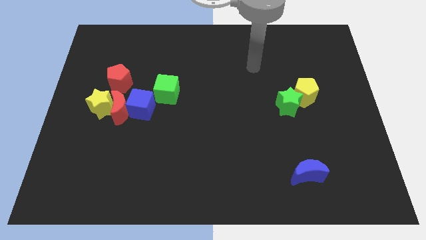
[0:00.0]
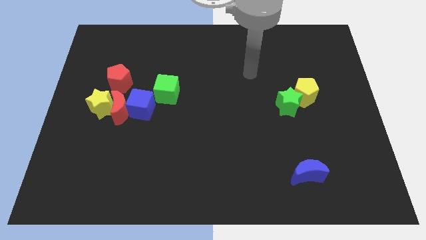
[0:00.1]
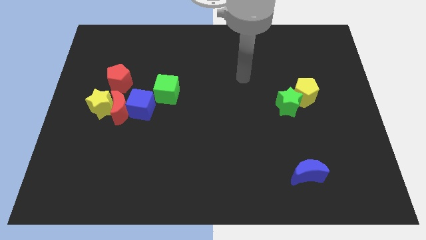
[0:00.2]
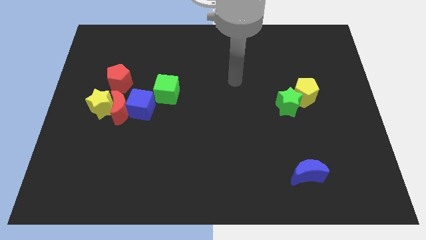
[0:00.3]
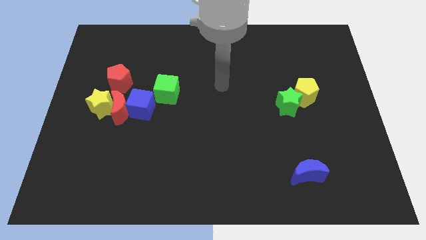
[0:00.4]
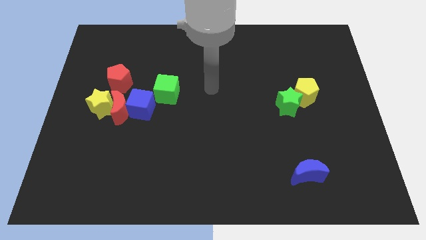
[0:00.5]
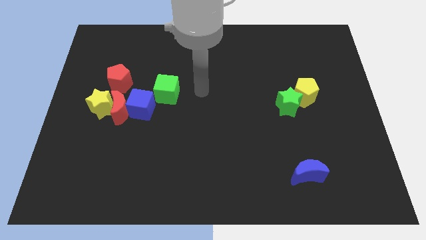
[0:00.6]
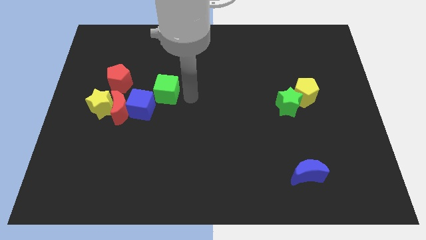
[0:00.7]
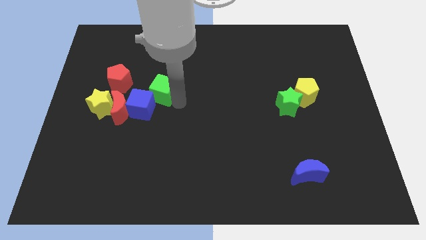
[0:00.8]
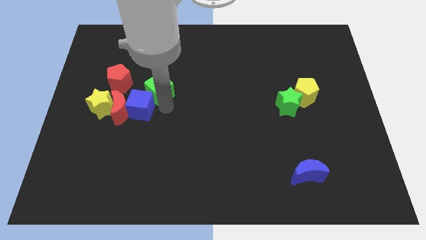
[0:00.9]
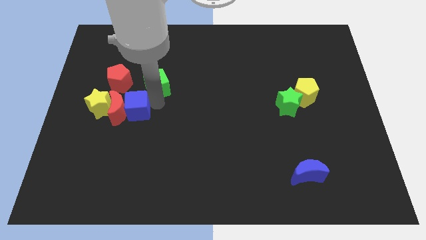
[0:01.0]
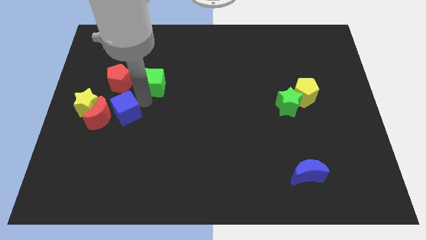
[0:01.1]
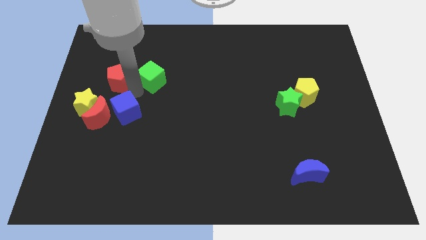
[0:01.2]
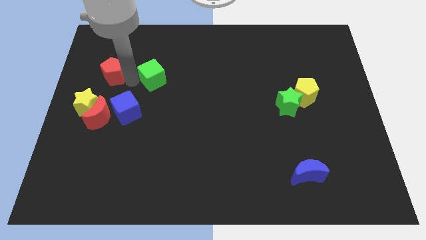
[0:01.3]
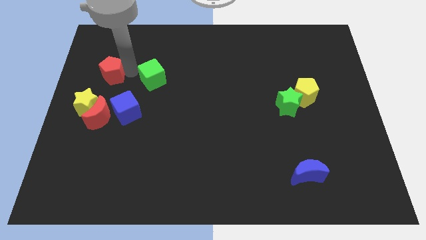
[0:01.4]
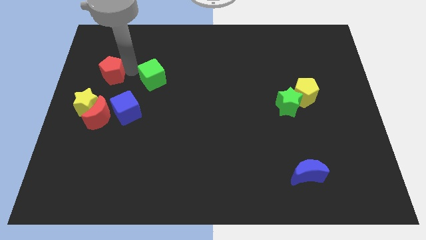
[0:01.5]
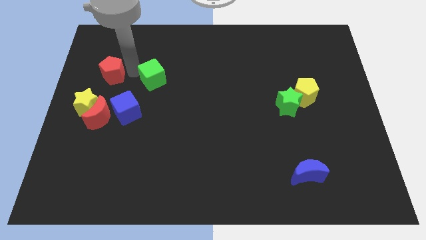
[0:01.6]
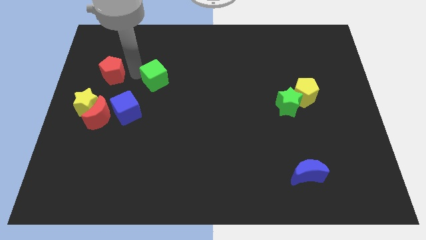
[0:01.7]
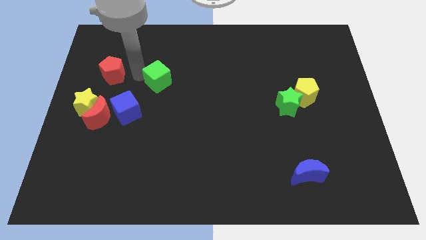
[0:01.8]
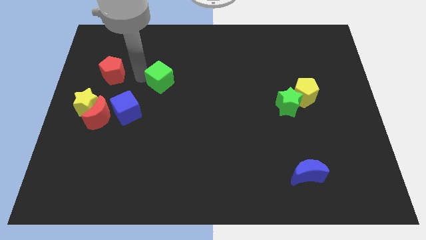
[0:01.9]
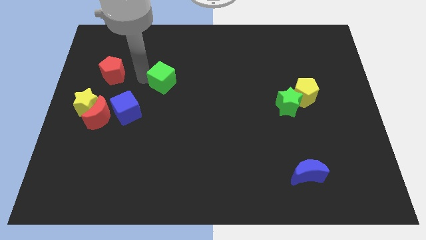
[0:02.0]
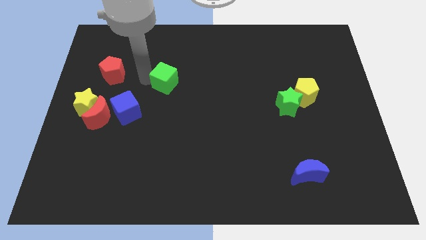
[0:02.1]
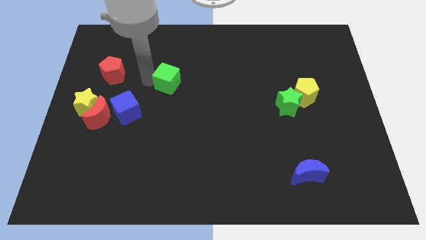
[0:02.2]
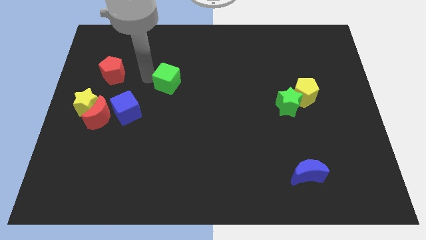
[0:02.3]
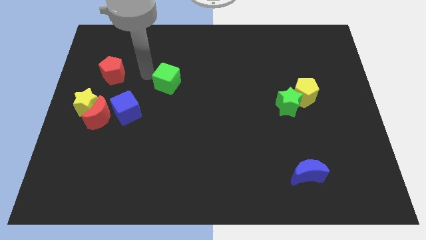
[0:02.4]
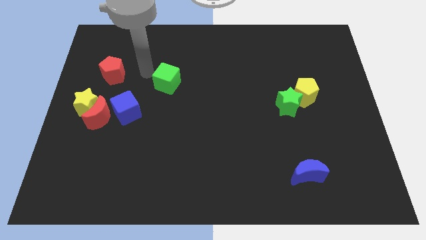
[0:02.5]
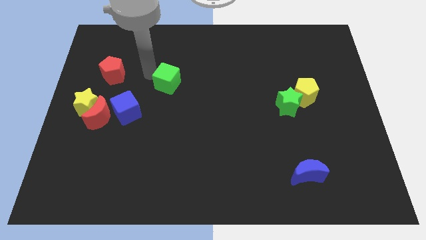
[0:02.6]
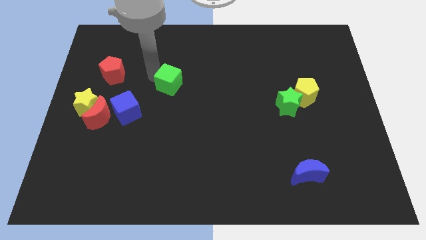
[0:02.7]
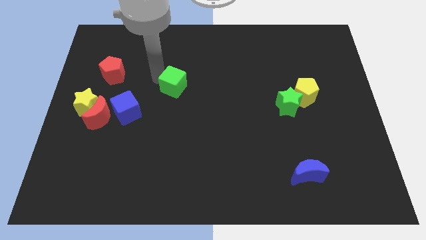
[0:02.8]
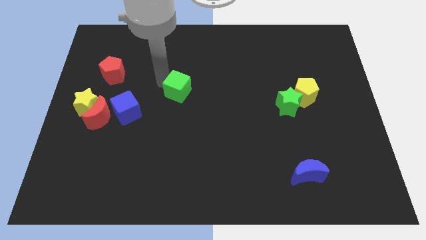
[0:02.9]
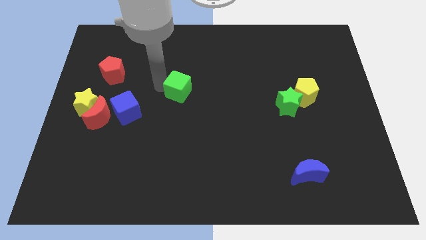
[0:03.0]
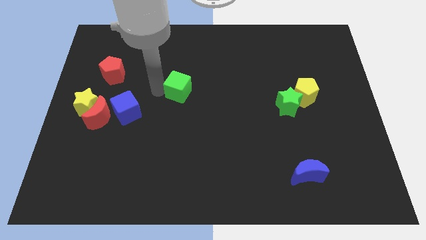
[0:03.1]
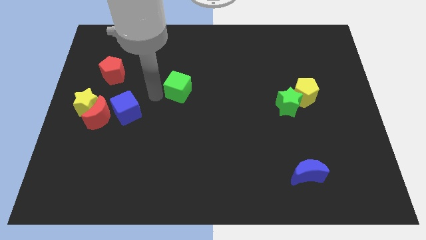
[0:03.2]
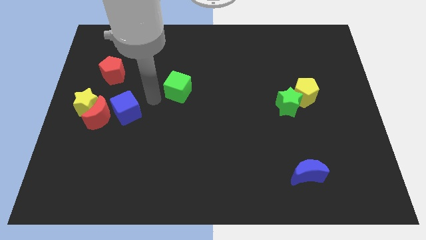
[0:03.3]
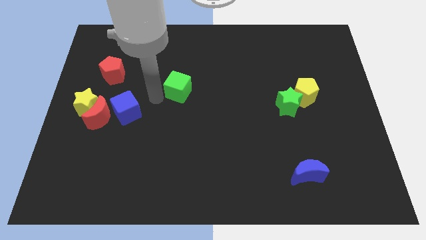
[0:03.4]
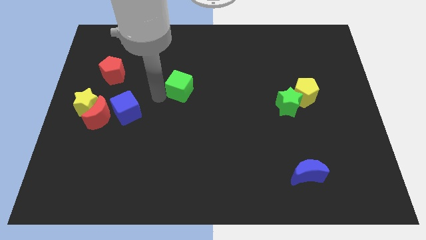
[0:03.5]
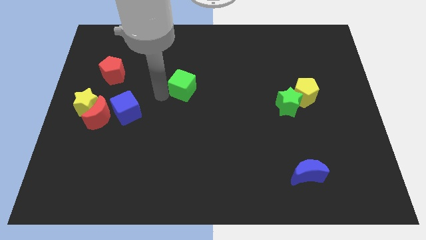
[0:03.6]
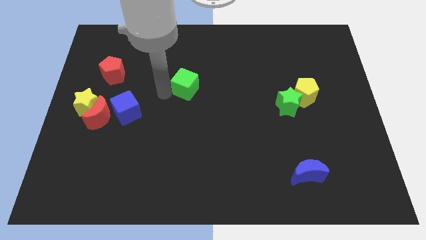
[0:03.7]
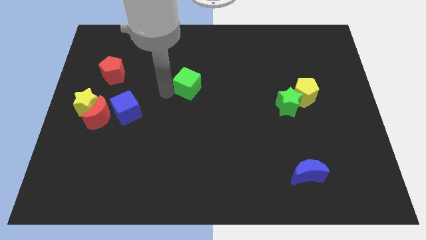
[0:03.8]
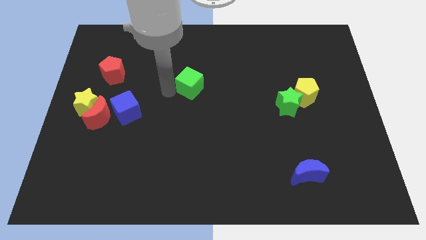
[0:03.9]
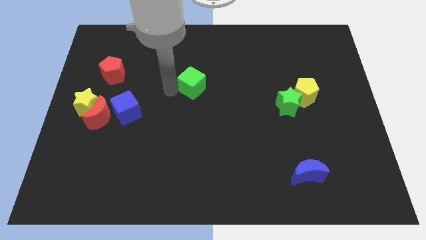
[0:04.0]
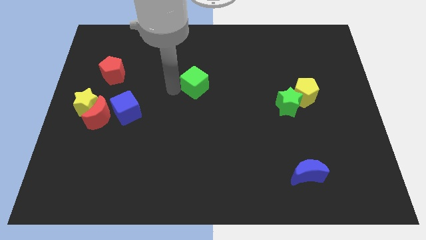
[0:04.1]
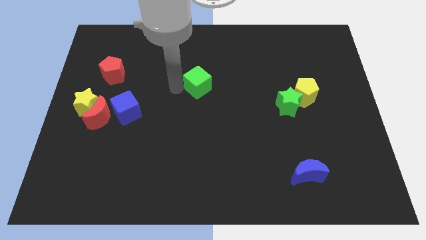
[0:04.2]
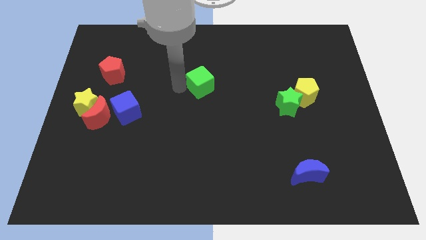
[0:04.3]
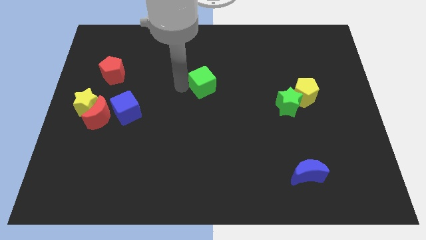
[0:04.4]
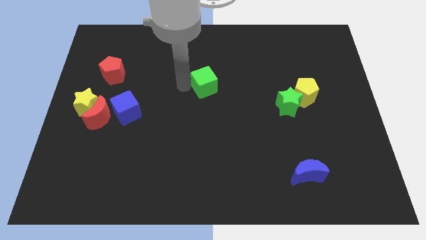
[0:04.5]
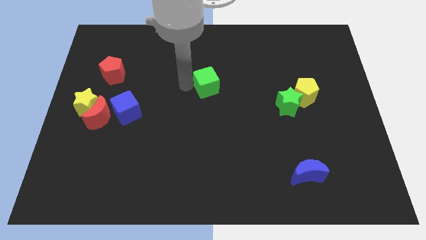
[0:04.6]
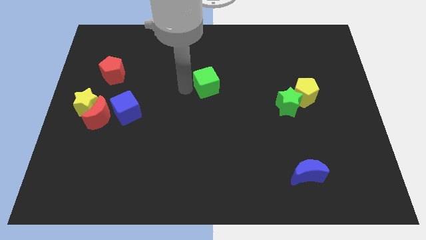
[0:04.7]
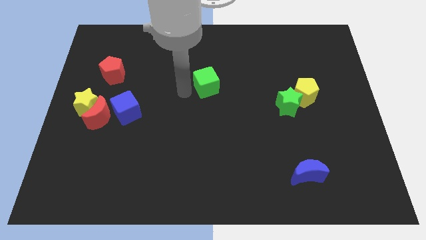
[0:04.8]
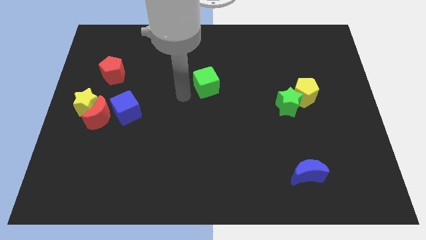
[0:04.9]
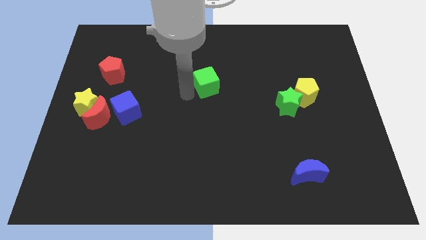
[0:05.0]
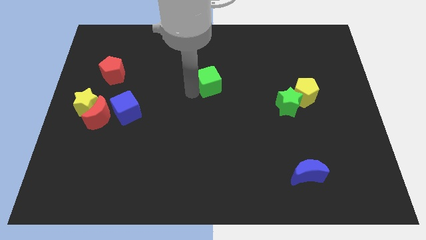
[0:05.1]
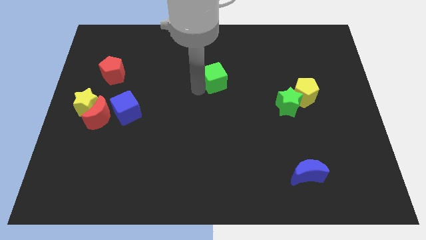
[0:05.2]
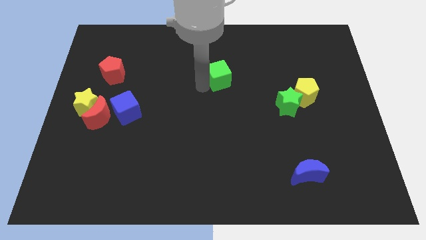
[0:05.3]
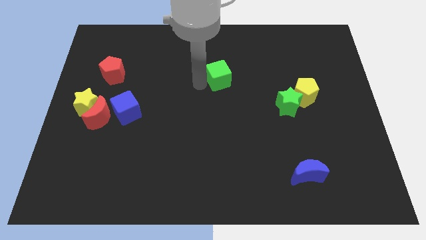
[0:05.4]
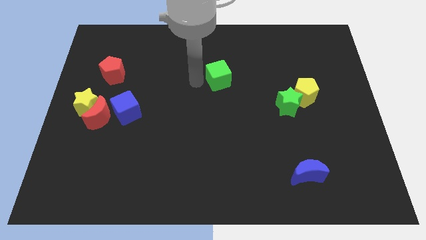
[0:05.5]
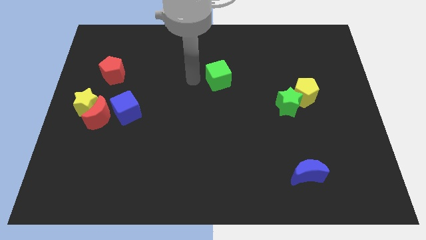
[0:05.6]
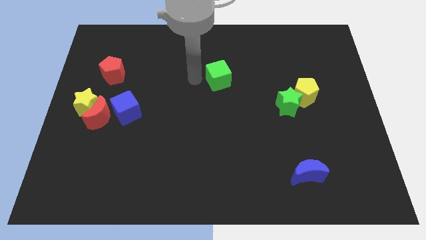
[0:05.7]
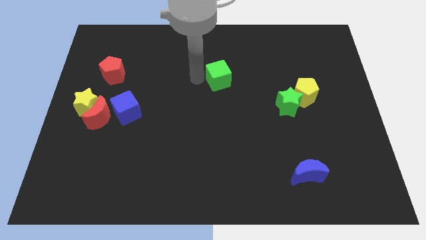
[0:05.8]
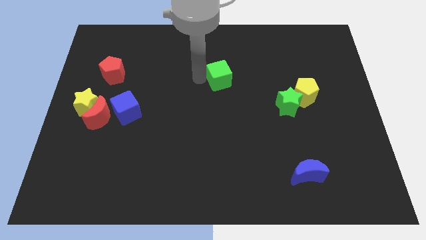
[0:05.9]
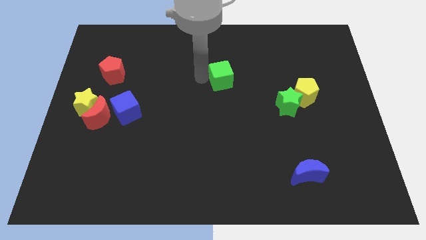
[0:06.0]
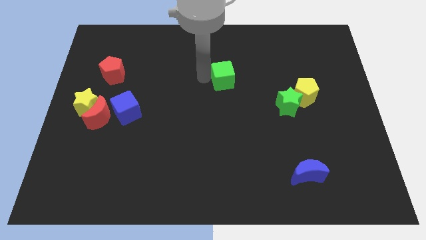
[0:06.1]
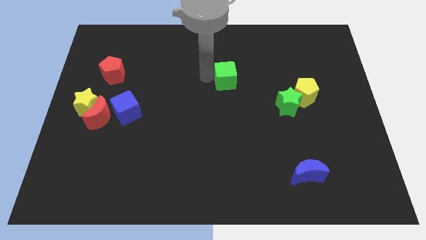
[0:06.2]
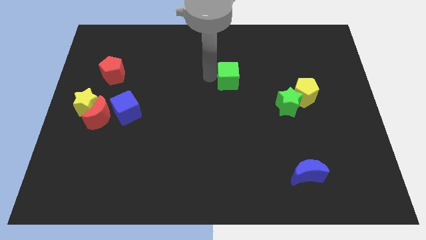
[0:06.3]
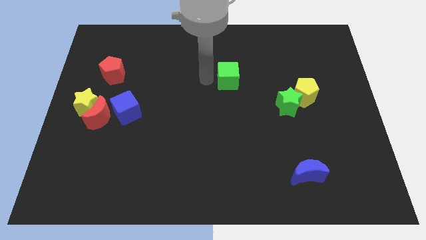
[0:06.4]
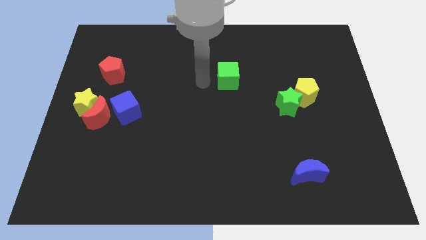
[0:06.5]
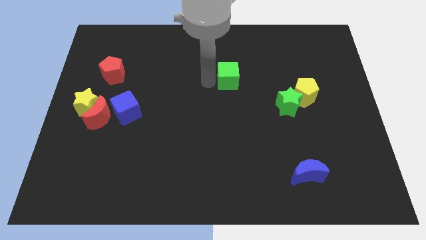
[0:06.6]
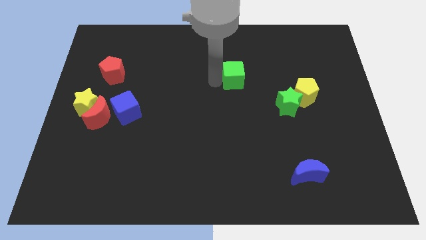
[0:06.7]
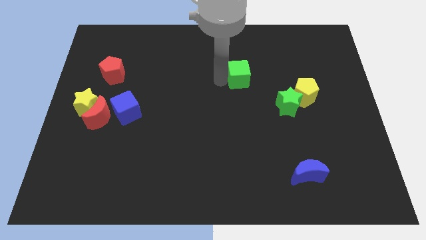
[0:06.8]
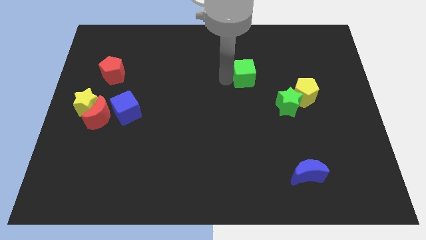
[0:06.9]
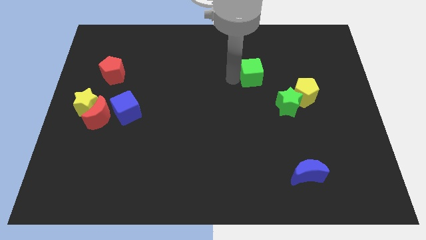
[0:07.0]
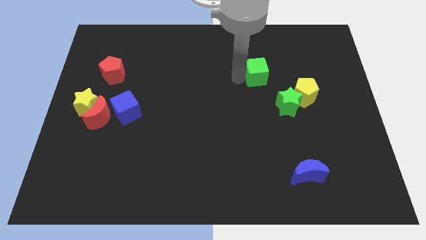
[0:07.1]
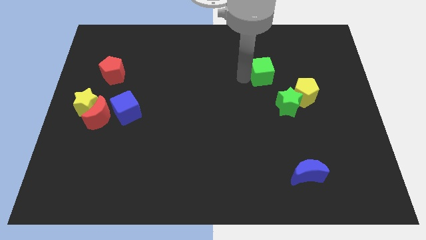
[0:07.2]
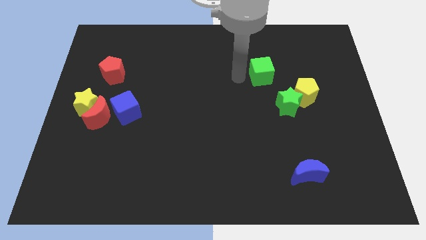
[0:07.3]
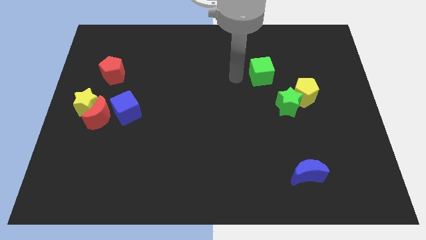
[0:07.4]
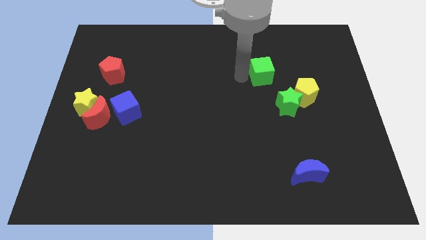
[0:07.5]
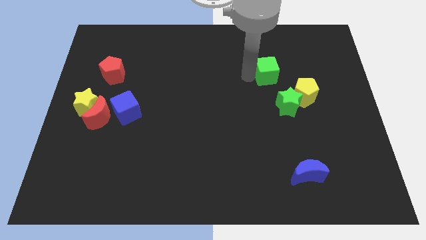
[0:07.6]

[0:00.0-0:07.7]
put the green cube to the top side of the green star
